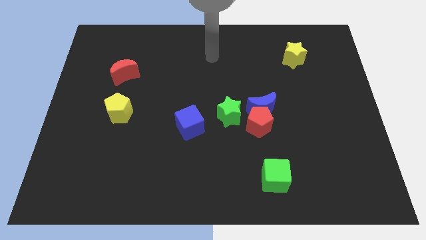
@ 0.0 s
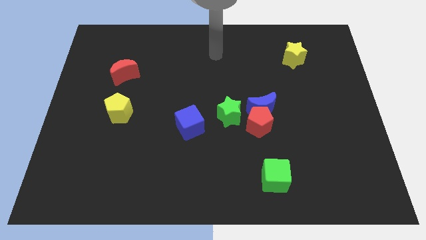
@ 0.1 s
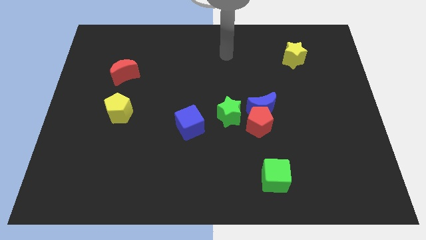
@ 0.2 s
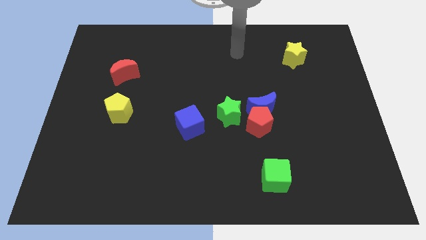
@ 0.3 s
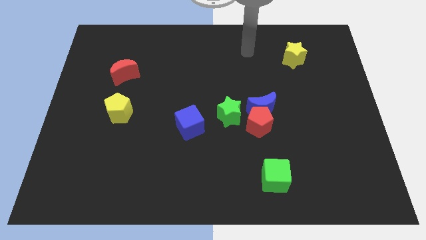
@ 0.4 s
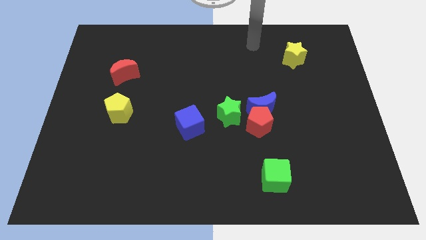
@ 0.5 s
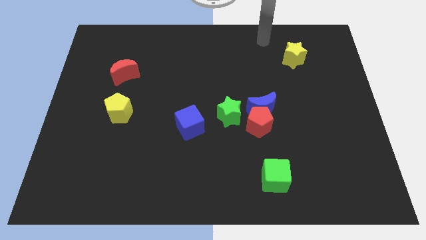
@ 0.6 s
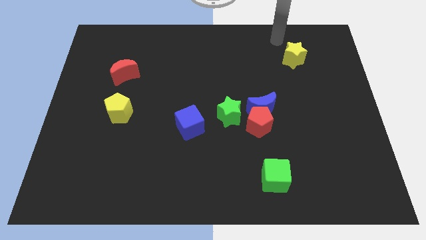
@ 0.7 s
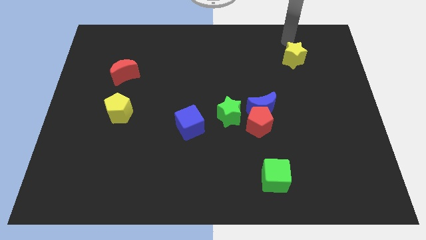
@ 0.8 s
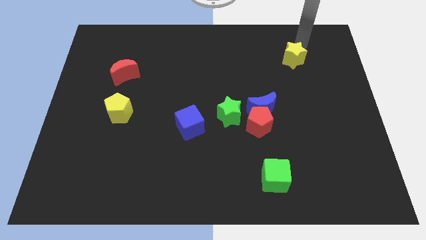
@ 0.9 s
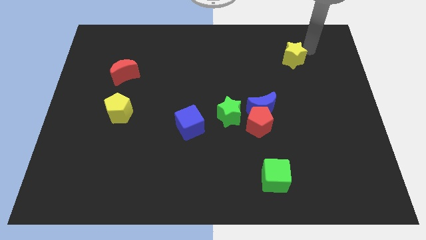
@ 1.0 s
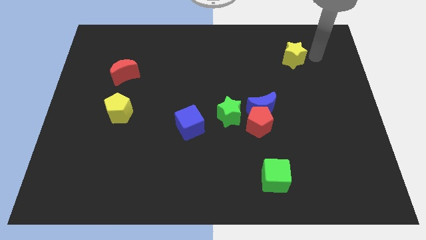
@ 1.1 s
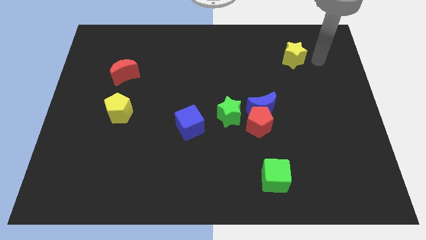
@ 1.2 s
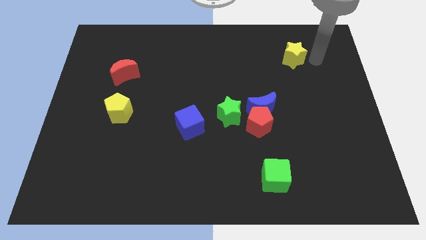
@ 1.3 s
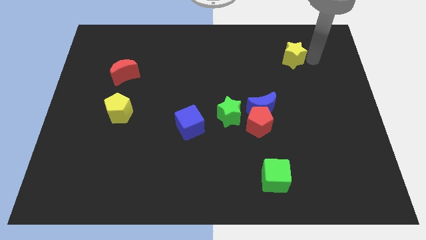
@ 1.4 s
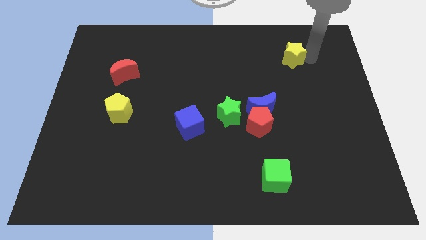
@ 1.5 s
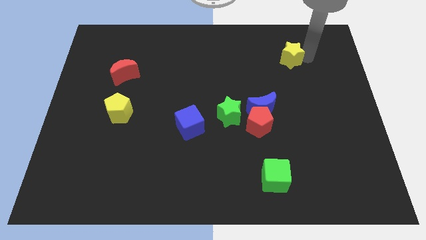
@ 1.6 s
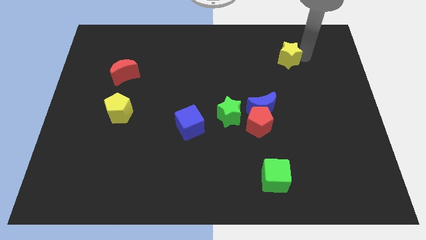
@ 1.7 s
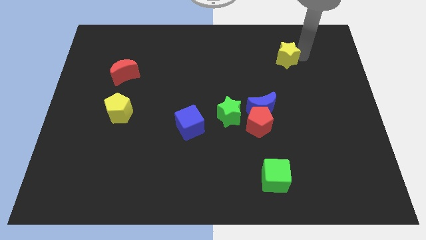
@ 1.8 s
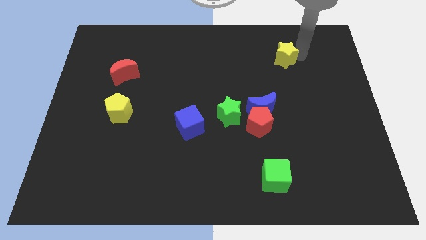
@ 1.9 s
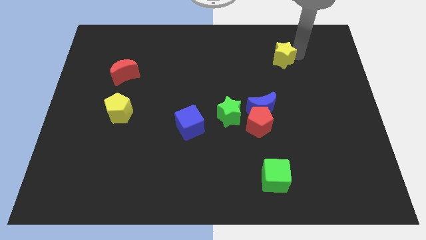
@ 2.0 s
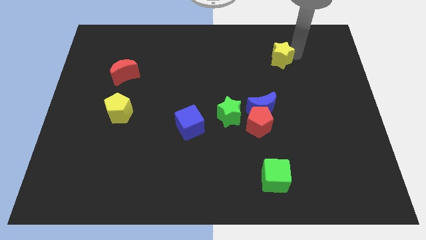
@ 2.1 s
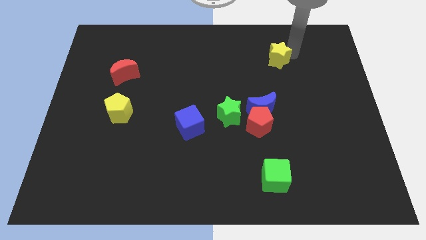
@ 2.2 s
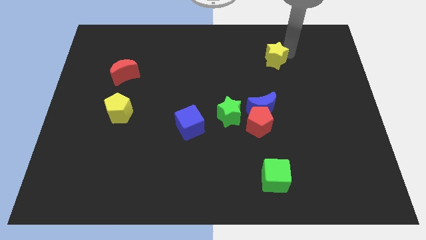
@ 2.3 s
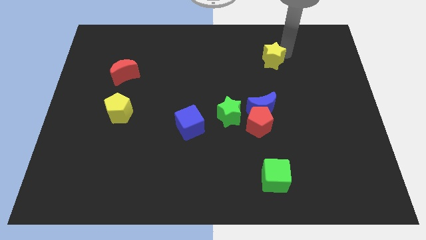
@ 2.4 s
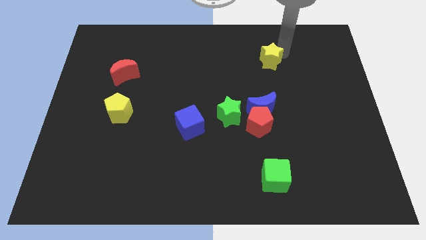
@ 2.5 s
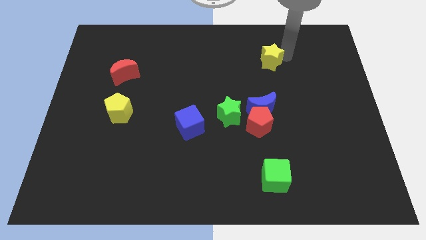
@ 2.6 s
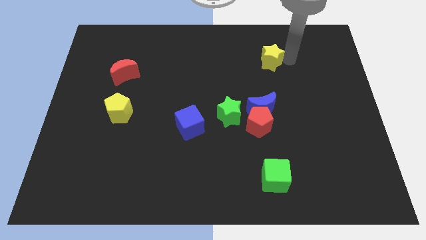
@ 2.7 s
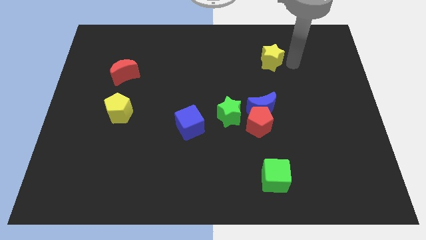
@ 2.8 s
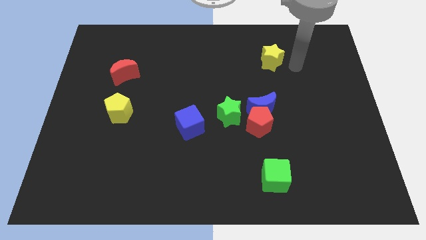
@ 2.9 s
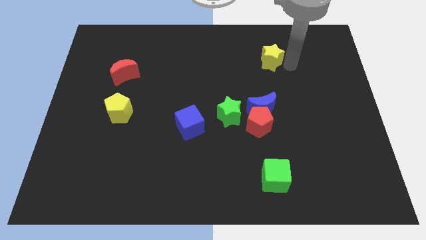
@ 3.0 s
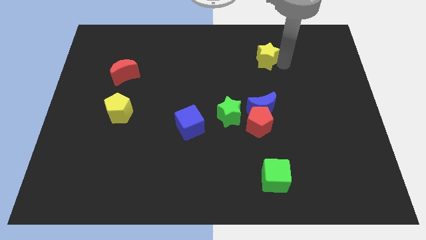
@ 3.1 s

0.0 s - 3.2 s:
move the yellow star left somewhat

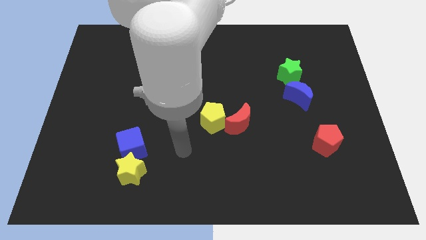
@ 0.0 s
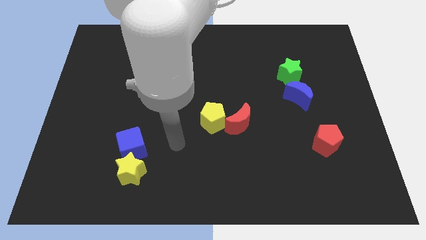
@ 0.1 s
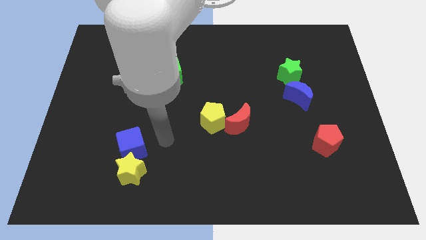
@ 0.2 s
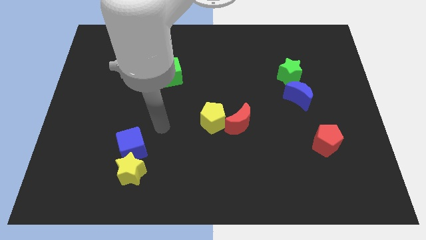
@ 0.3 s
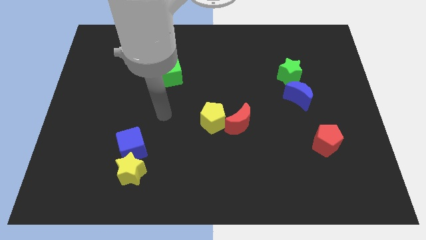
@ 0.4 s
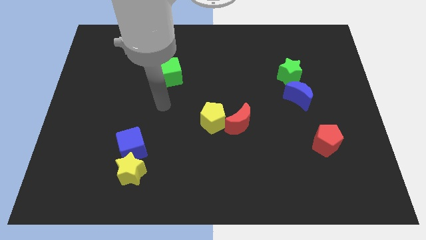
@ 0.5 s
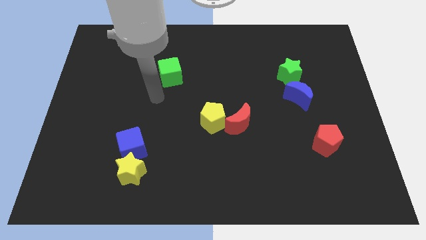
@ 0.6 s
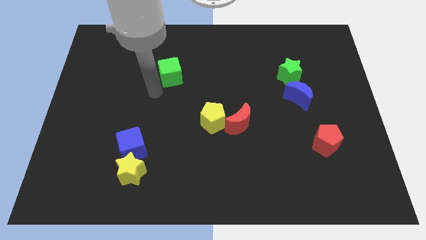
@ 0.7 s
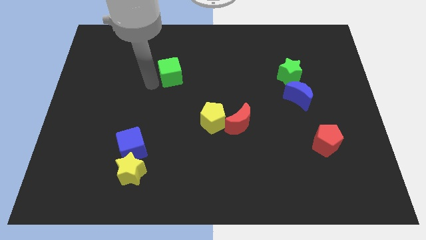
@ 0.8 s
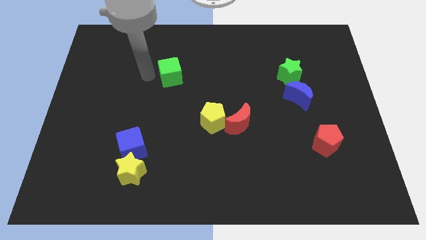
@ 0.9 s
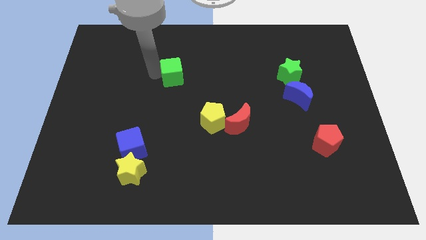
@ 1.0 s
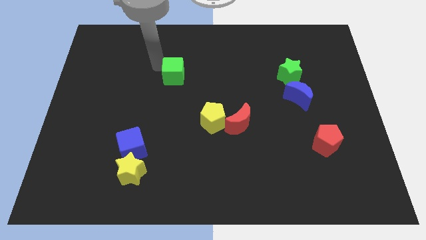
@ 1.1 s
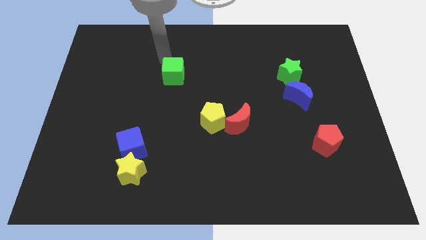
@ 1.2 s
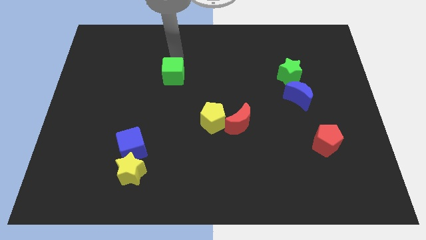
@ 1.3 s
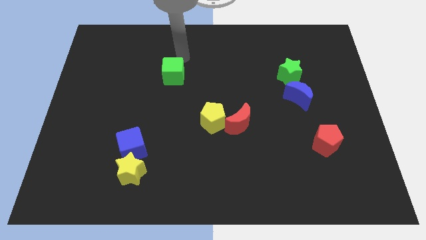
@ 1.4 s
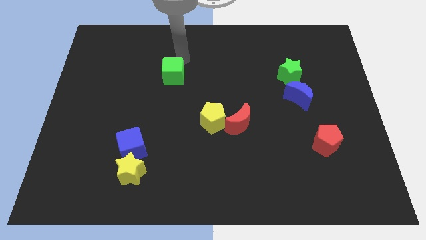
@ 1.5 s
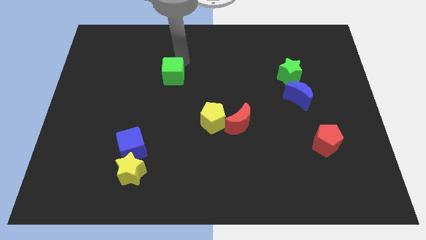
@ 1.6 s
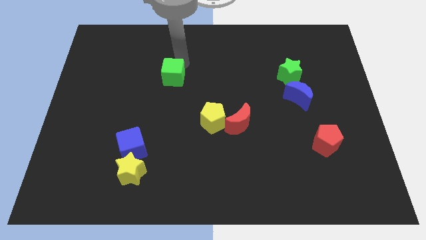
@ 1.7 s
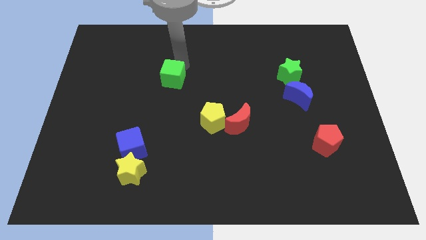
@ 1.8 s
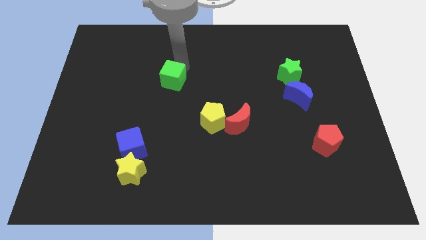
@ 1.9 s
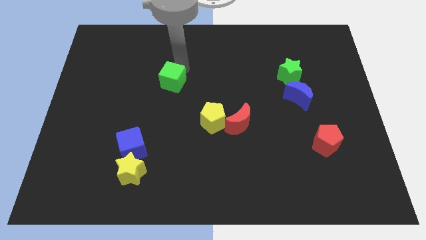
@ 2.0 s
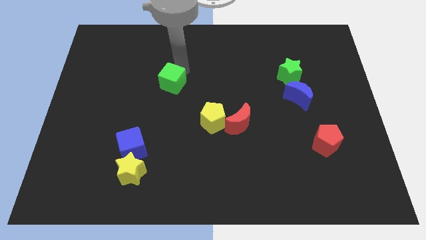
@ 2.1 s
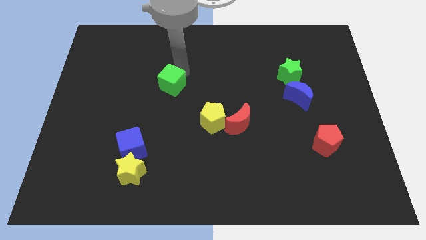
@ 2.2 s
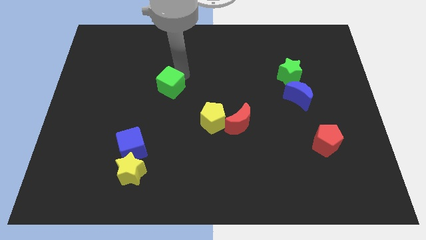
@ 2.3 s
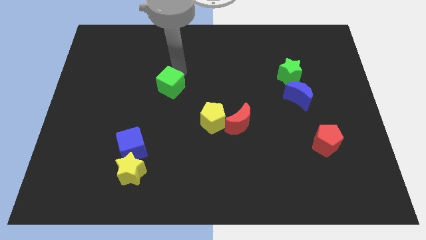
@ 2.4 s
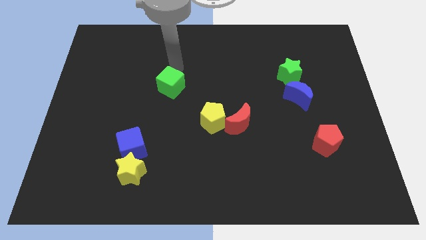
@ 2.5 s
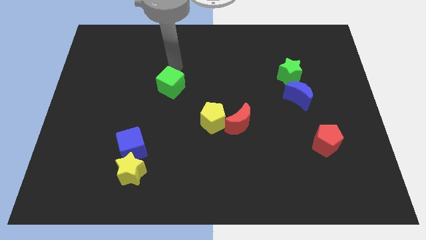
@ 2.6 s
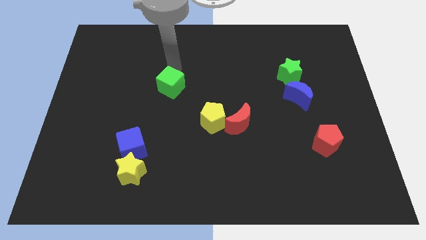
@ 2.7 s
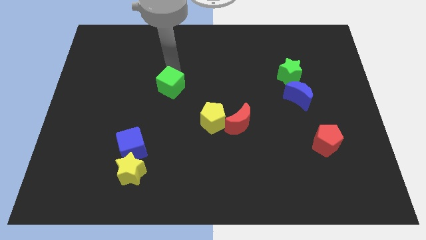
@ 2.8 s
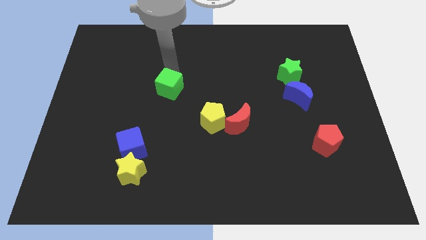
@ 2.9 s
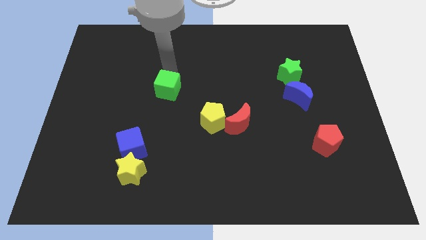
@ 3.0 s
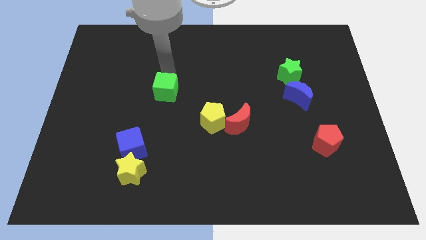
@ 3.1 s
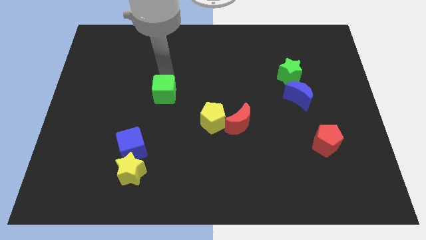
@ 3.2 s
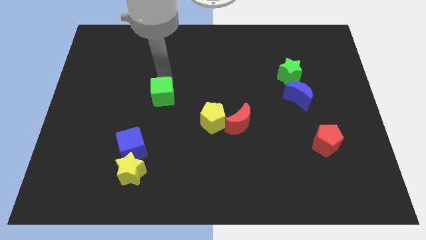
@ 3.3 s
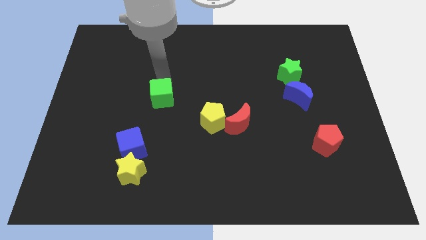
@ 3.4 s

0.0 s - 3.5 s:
slide the green cube somewhat downwards

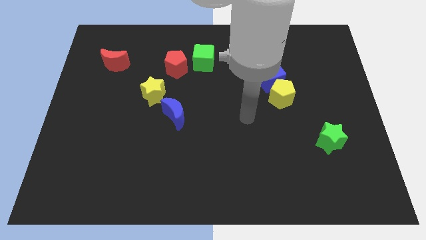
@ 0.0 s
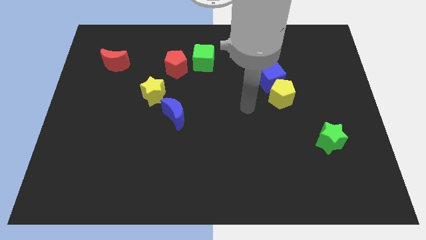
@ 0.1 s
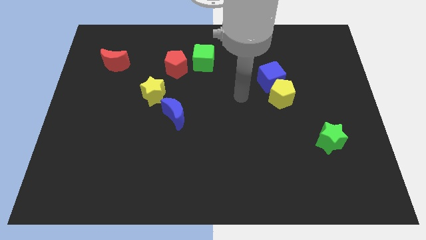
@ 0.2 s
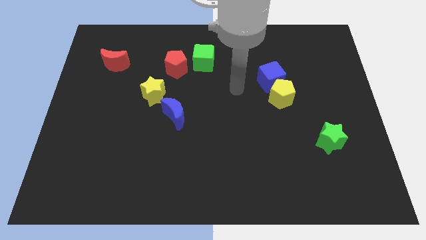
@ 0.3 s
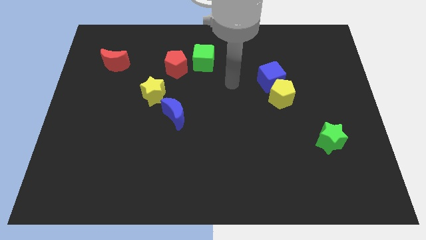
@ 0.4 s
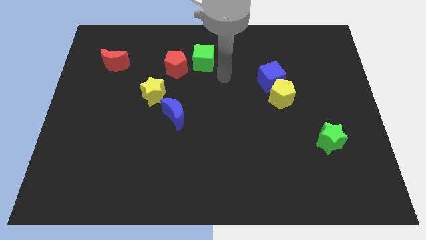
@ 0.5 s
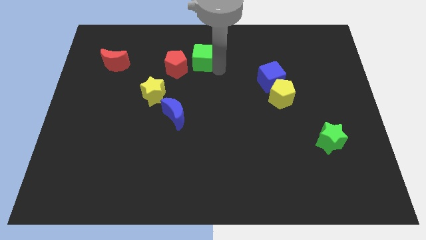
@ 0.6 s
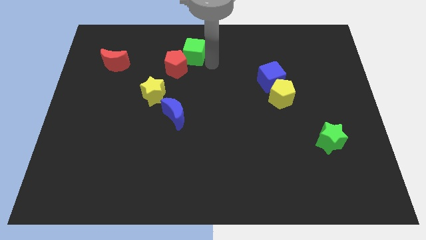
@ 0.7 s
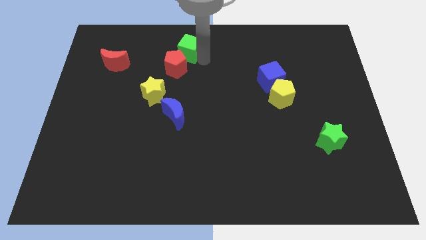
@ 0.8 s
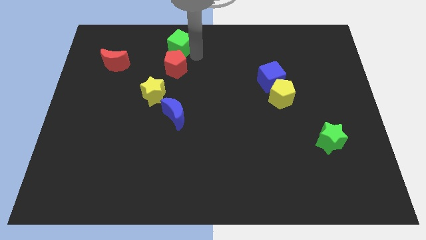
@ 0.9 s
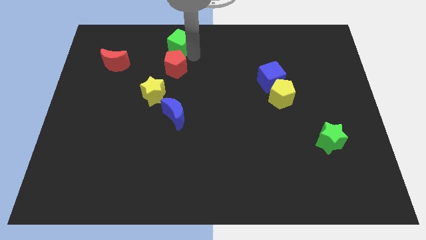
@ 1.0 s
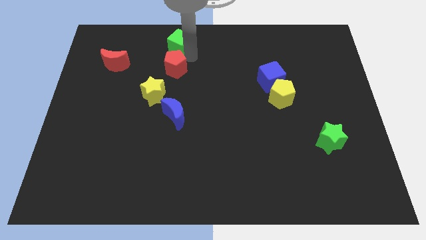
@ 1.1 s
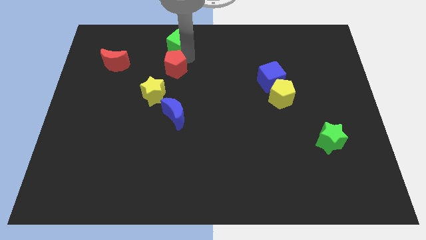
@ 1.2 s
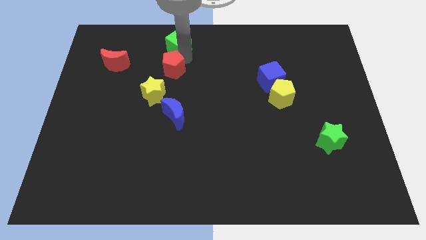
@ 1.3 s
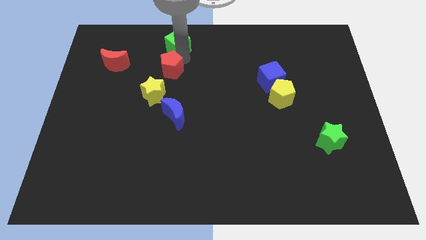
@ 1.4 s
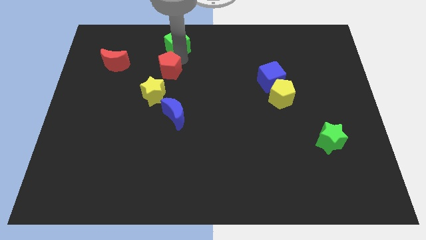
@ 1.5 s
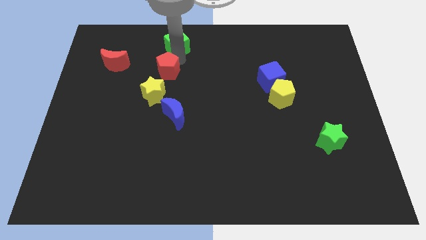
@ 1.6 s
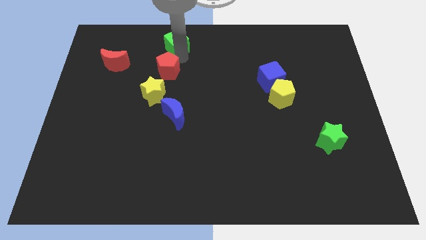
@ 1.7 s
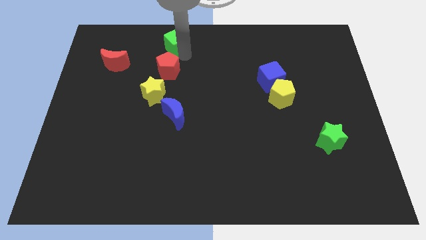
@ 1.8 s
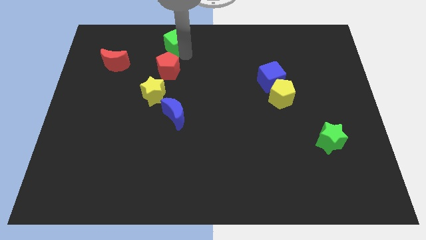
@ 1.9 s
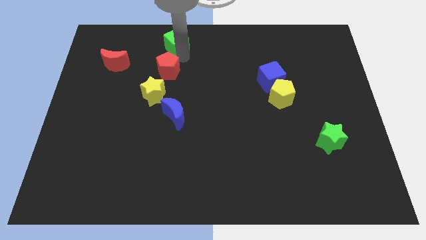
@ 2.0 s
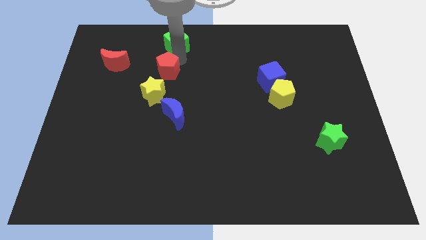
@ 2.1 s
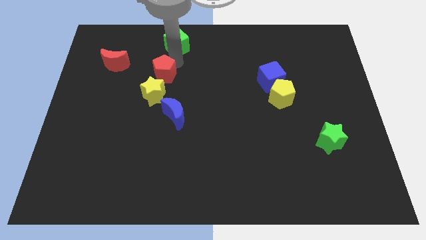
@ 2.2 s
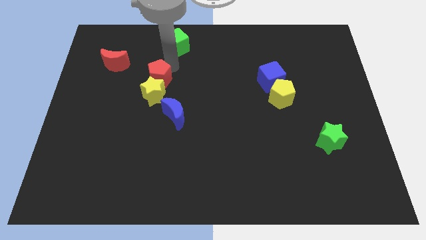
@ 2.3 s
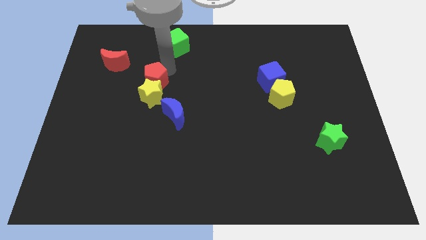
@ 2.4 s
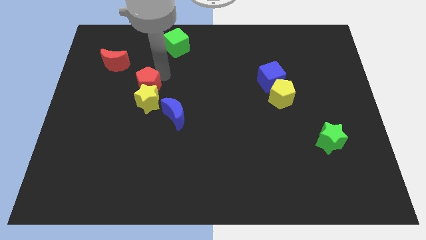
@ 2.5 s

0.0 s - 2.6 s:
push the red pentagon down and to the left a little bit
